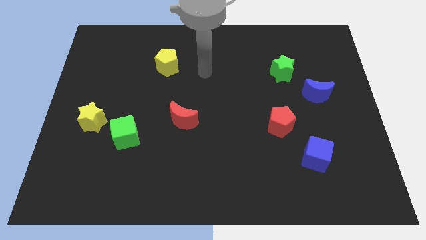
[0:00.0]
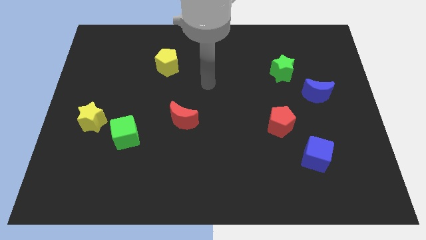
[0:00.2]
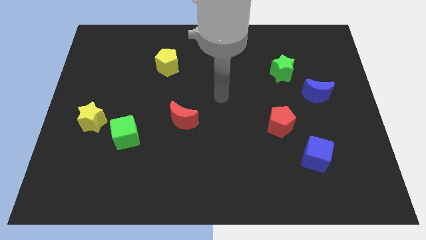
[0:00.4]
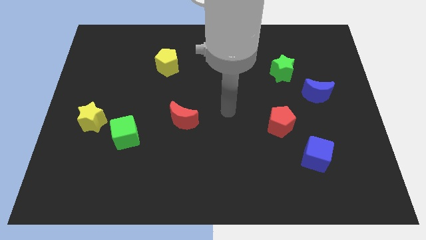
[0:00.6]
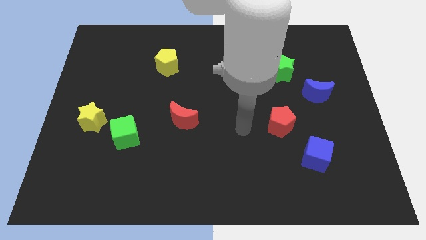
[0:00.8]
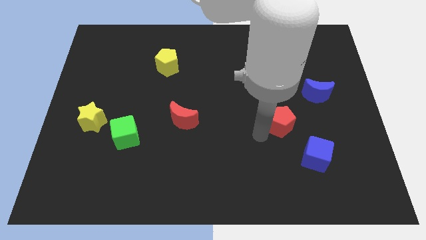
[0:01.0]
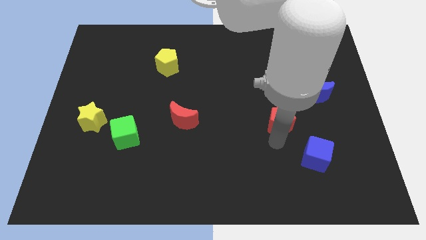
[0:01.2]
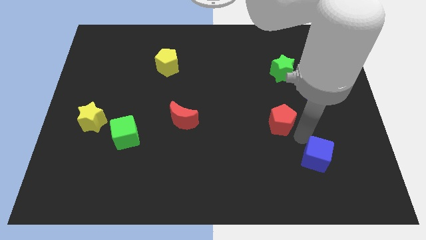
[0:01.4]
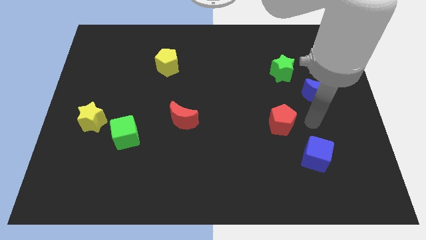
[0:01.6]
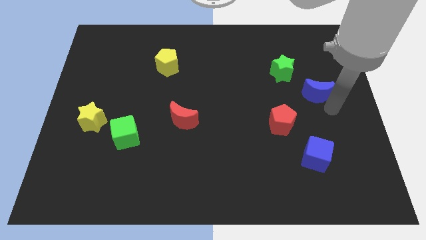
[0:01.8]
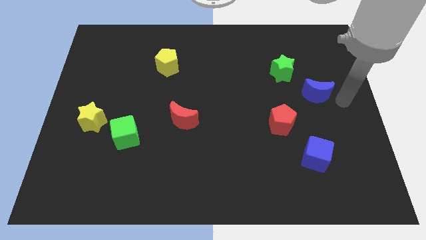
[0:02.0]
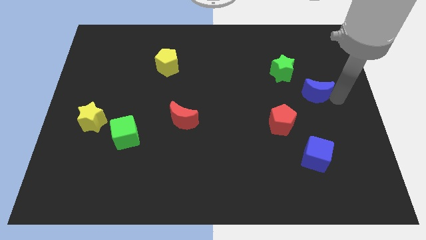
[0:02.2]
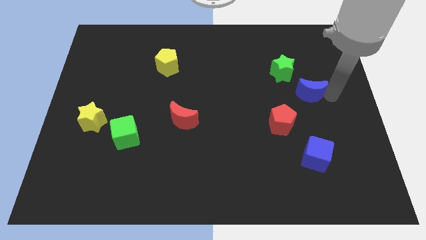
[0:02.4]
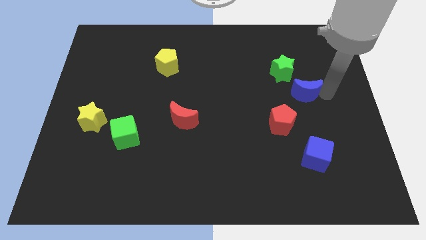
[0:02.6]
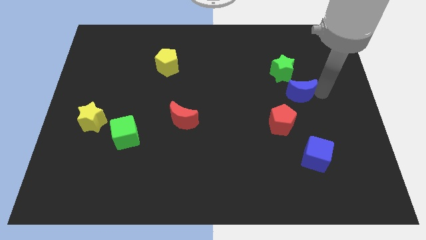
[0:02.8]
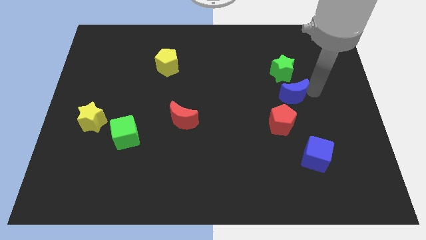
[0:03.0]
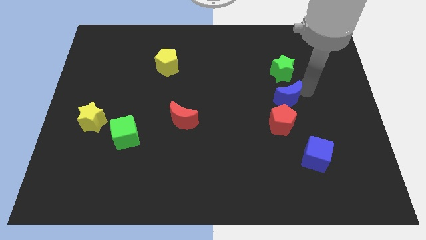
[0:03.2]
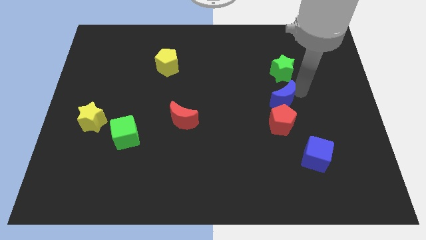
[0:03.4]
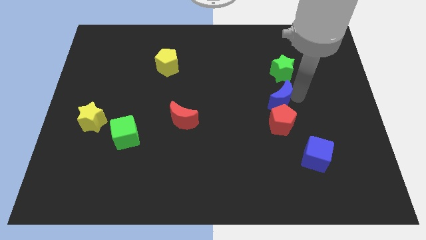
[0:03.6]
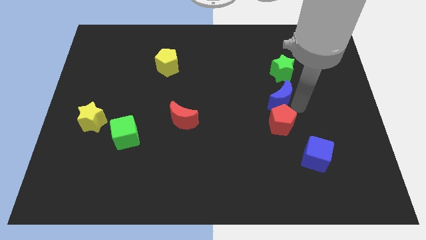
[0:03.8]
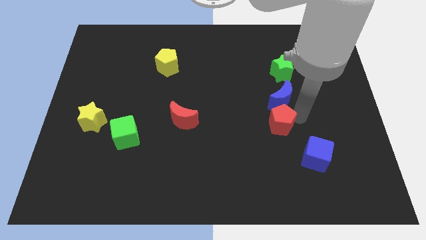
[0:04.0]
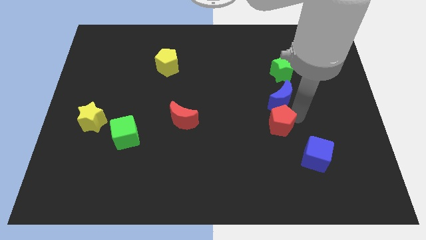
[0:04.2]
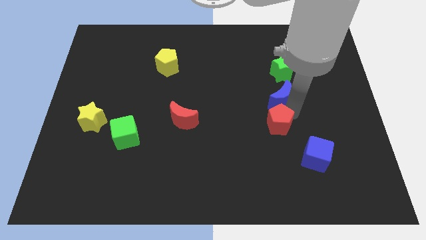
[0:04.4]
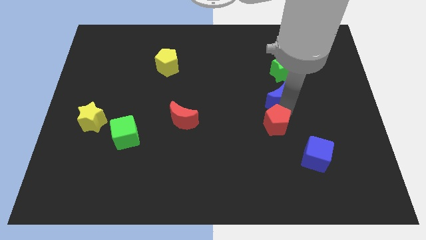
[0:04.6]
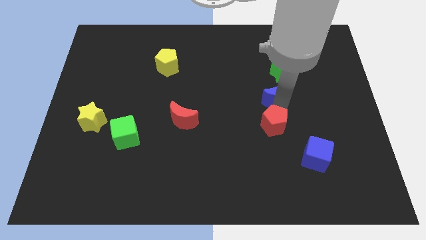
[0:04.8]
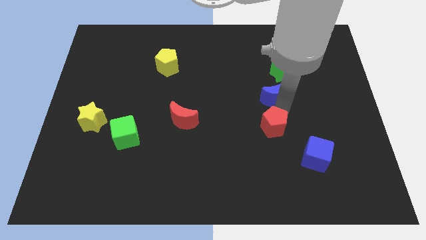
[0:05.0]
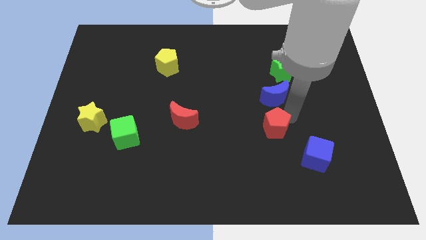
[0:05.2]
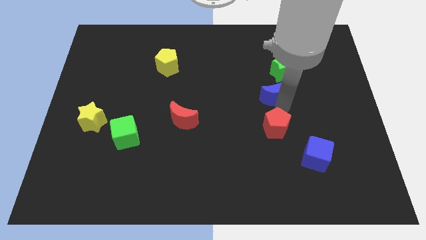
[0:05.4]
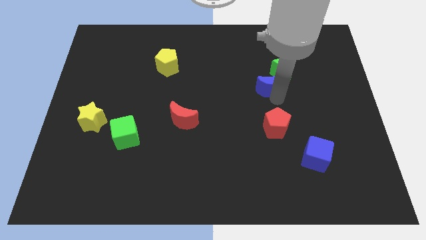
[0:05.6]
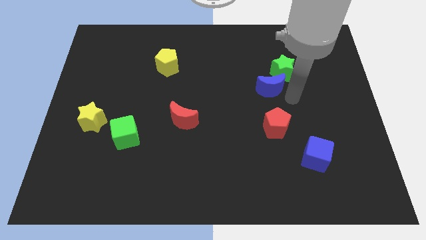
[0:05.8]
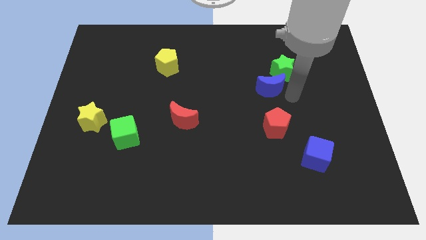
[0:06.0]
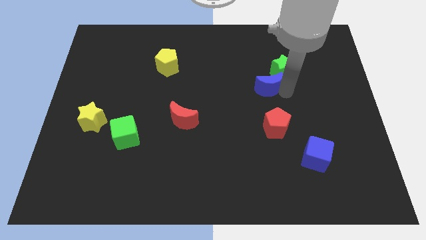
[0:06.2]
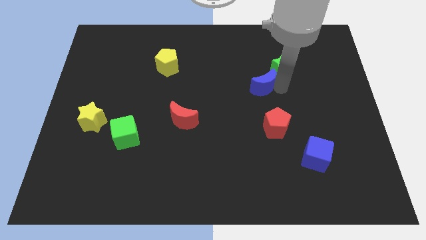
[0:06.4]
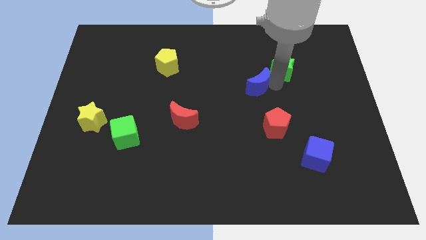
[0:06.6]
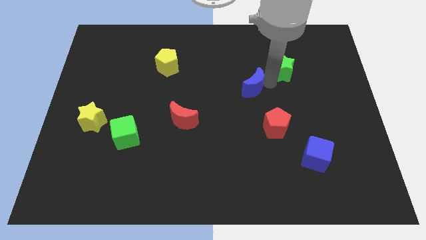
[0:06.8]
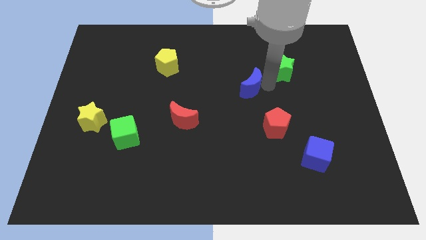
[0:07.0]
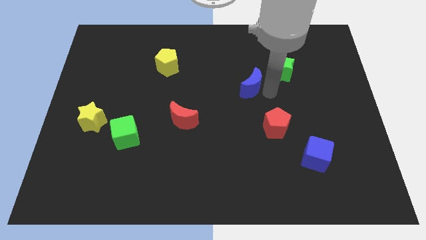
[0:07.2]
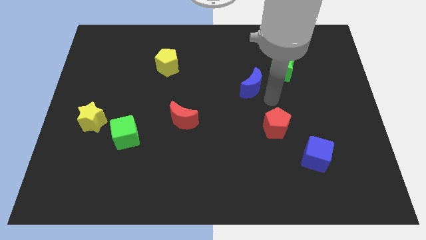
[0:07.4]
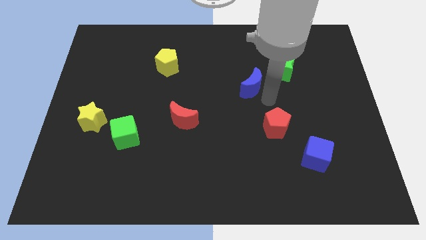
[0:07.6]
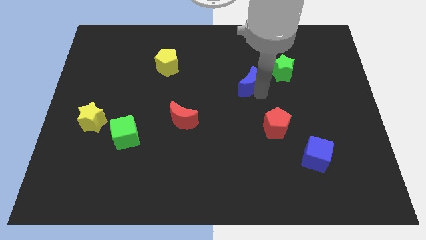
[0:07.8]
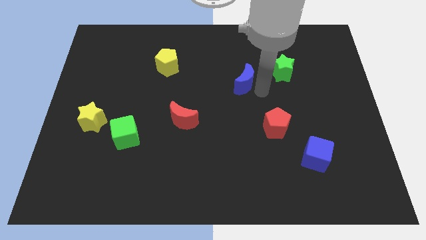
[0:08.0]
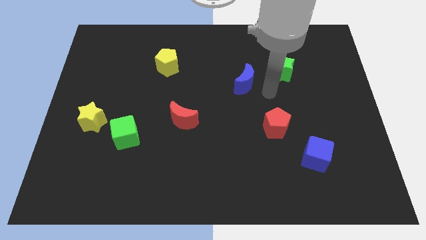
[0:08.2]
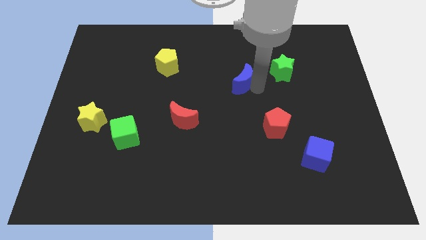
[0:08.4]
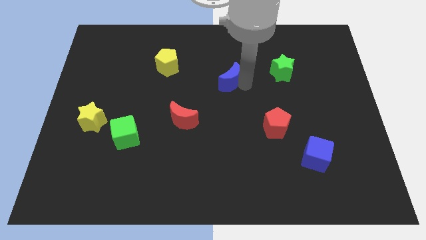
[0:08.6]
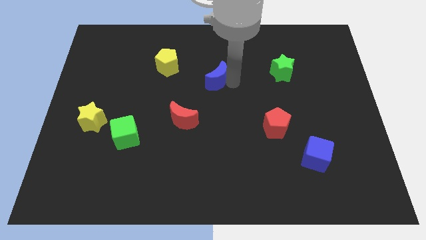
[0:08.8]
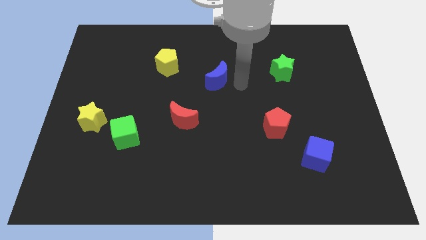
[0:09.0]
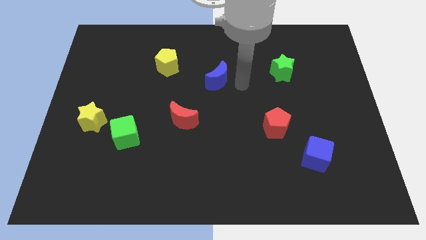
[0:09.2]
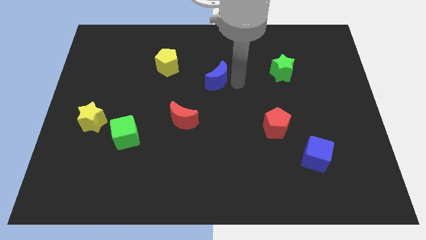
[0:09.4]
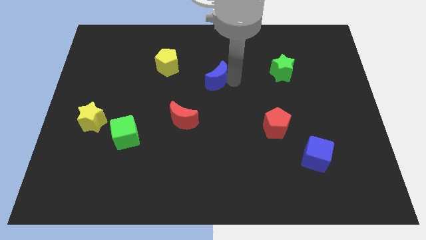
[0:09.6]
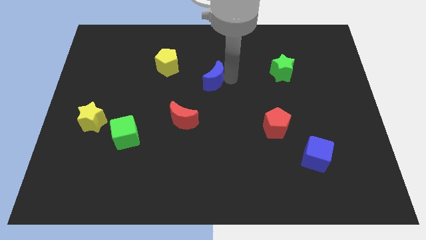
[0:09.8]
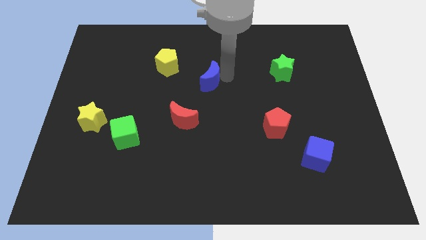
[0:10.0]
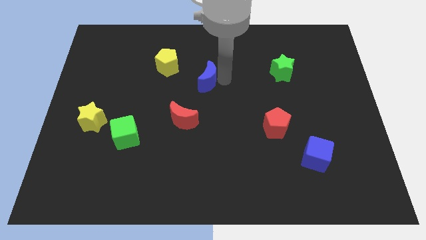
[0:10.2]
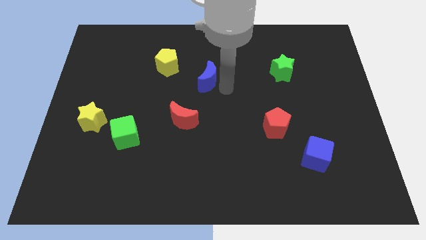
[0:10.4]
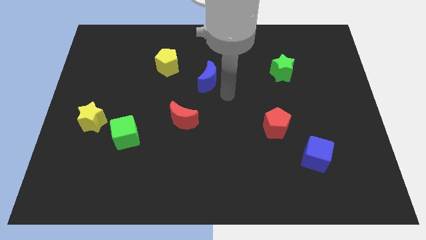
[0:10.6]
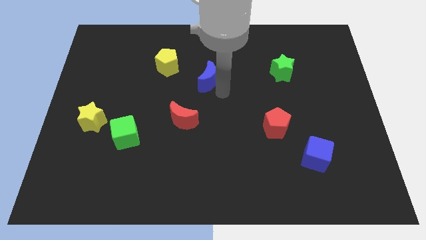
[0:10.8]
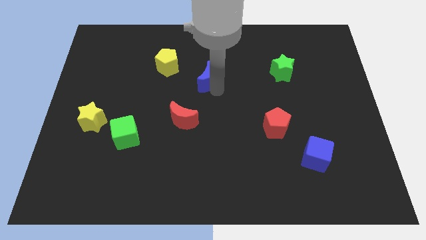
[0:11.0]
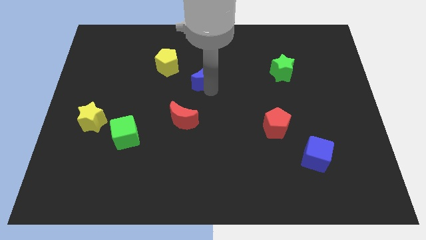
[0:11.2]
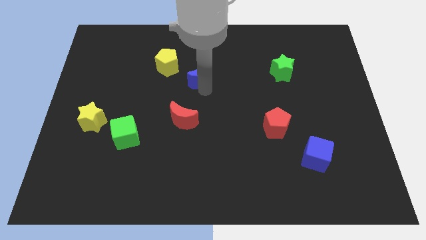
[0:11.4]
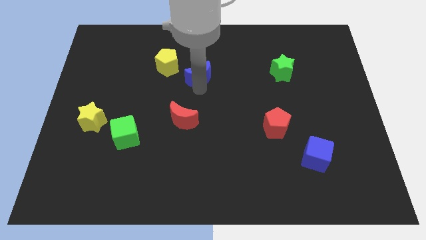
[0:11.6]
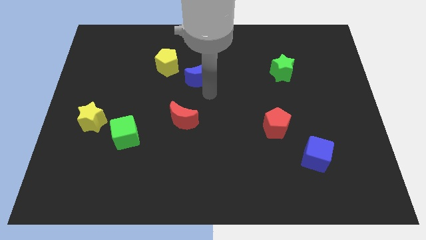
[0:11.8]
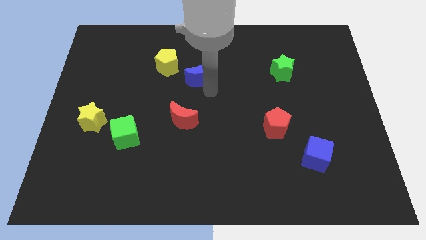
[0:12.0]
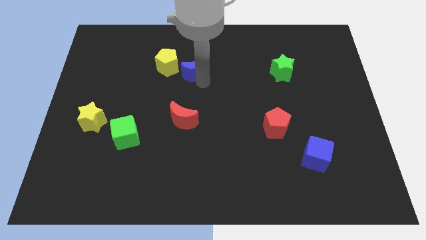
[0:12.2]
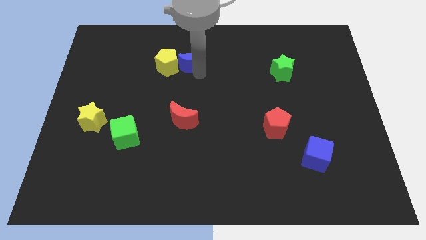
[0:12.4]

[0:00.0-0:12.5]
move the blue moon close to the yellow pentagon
